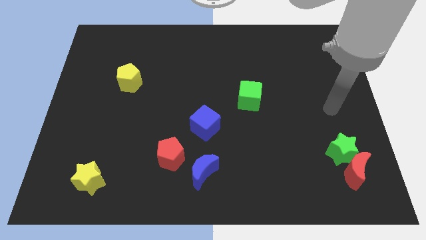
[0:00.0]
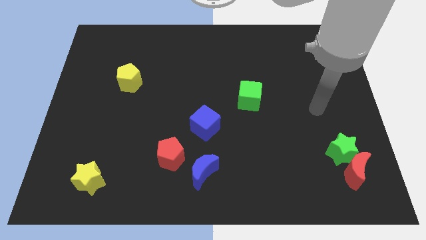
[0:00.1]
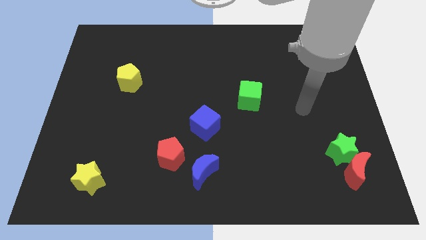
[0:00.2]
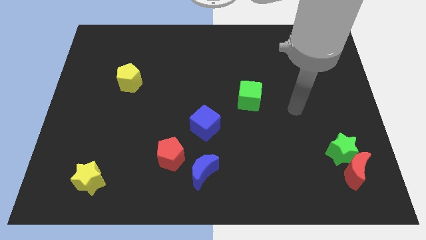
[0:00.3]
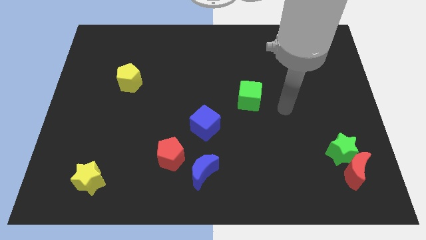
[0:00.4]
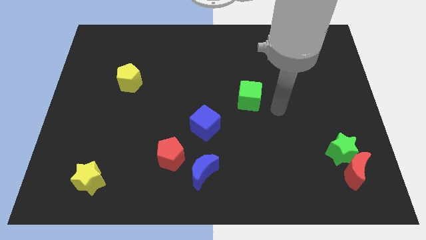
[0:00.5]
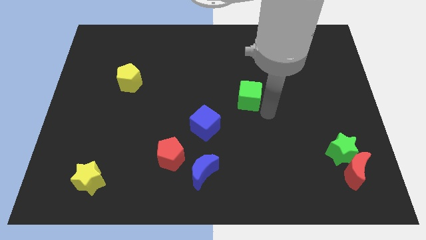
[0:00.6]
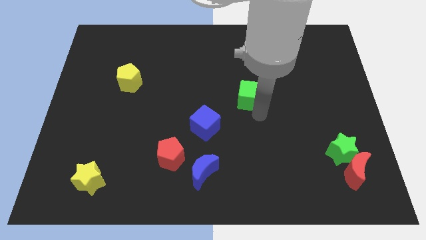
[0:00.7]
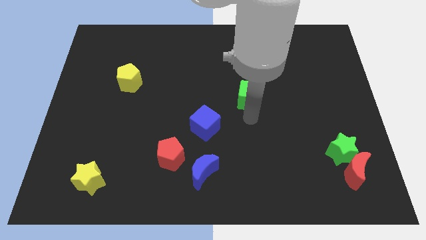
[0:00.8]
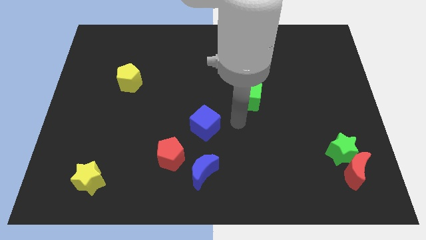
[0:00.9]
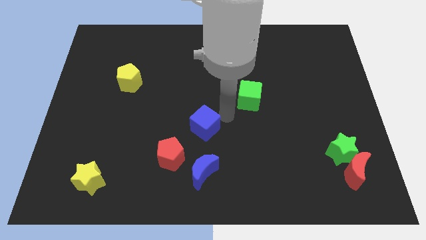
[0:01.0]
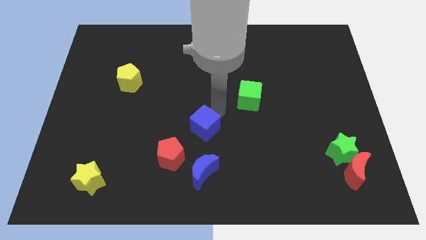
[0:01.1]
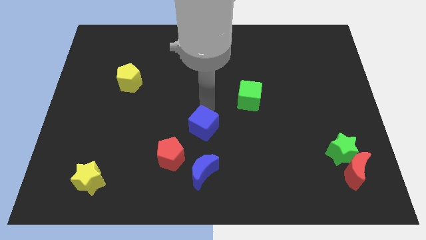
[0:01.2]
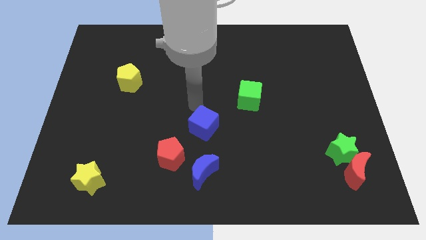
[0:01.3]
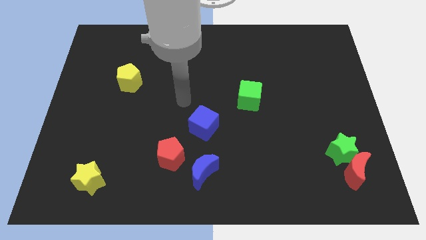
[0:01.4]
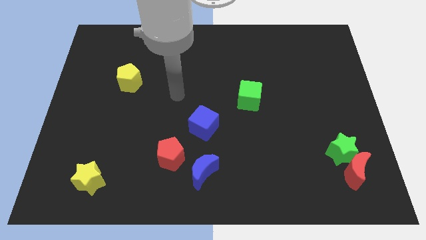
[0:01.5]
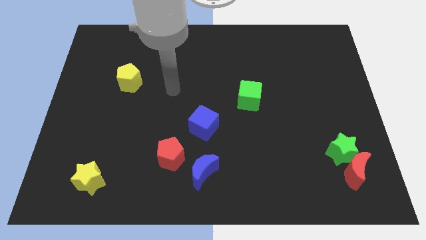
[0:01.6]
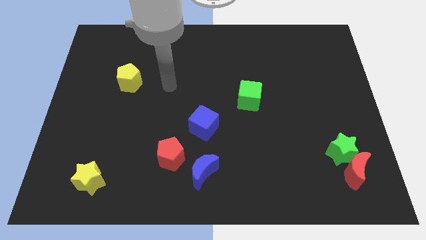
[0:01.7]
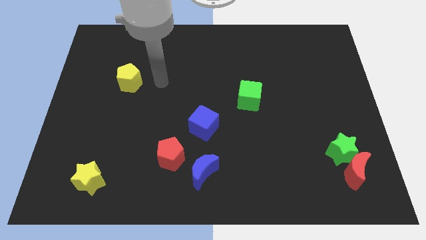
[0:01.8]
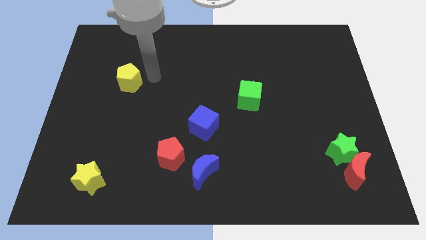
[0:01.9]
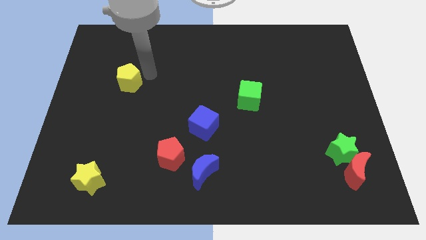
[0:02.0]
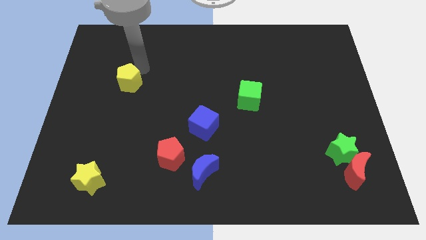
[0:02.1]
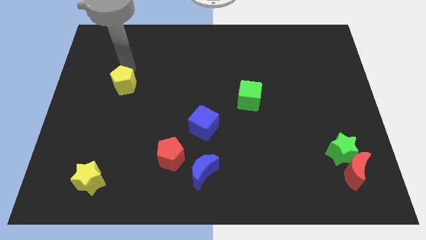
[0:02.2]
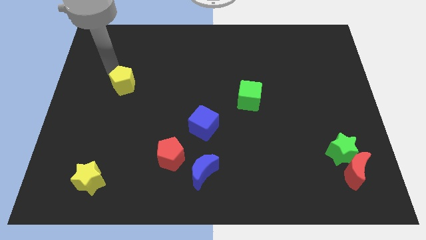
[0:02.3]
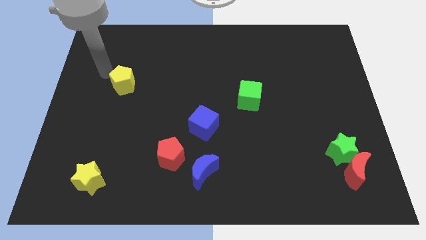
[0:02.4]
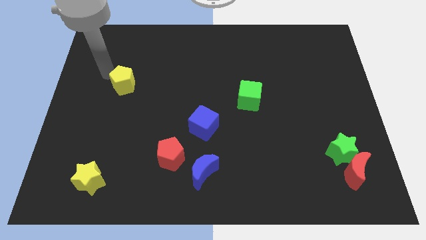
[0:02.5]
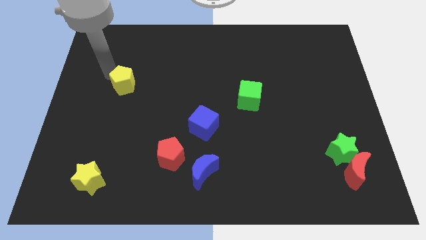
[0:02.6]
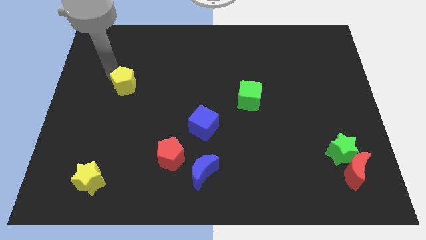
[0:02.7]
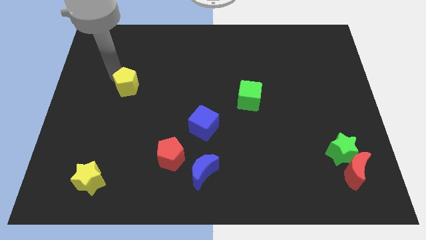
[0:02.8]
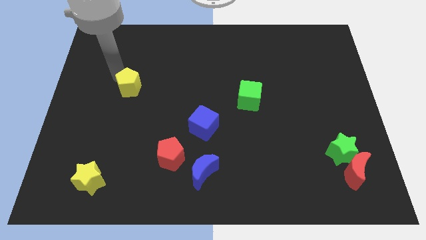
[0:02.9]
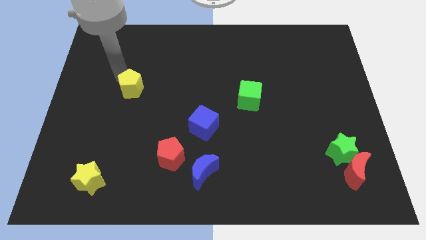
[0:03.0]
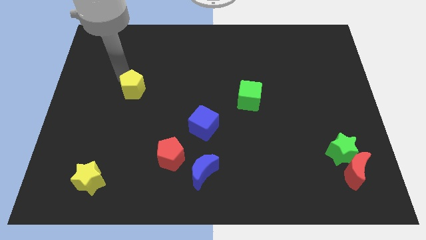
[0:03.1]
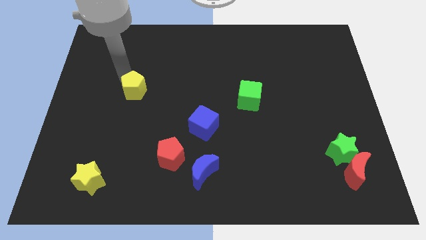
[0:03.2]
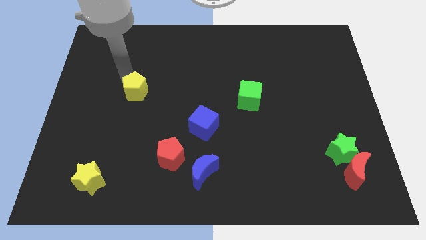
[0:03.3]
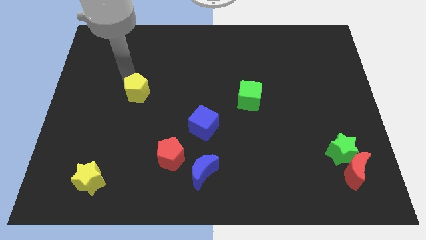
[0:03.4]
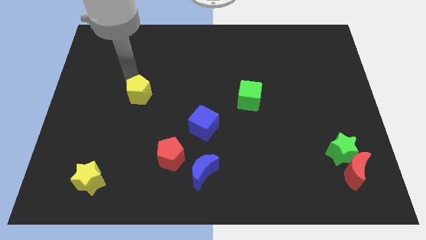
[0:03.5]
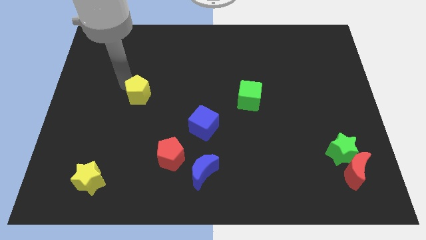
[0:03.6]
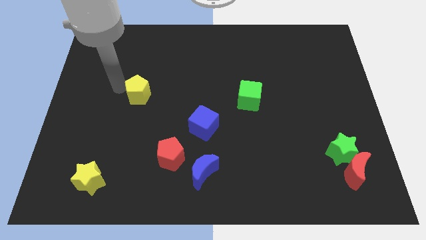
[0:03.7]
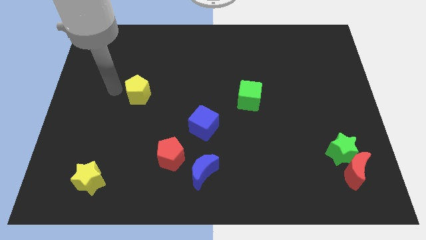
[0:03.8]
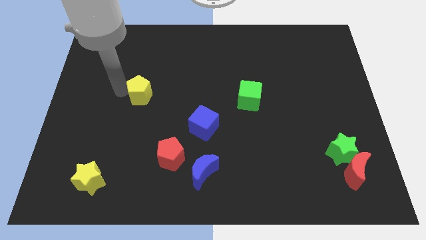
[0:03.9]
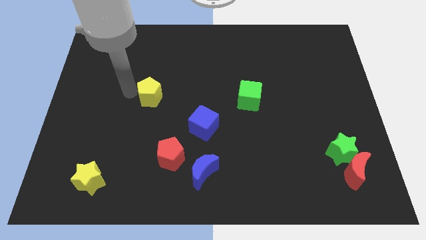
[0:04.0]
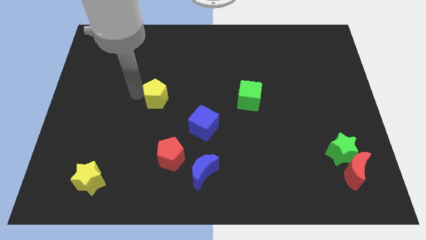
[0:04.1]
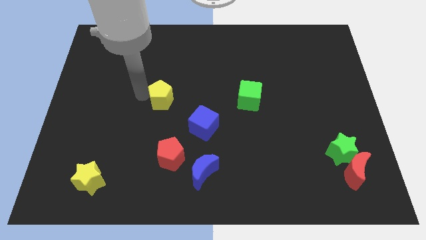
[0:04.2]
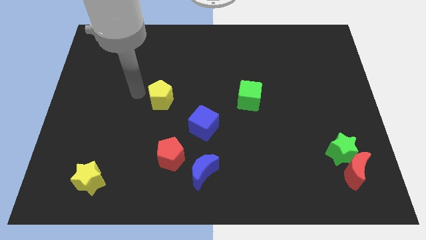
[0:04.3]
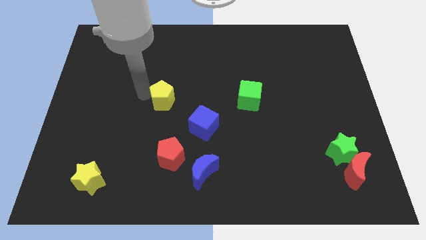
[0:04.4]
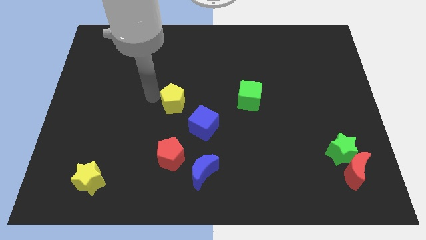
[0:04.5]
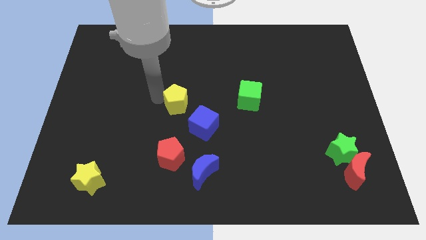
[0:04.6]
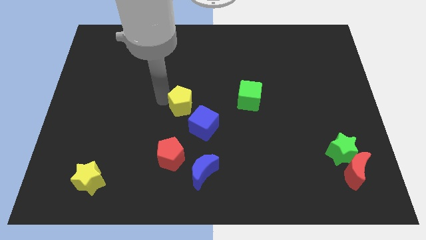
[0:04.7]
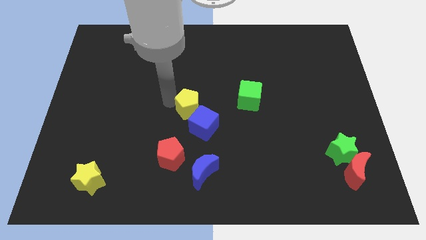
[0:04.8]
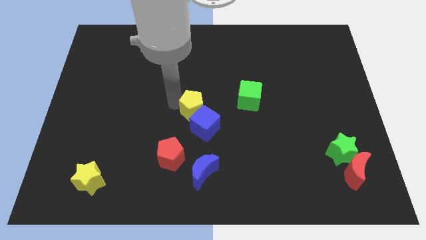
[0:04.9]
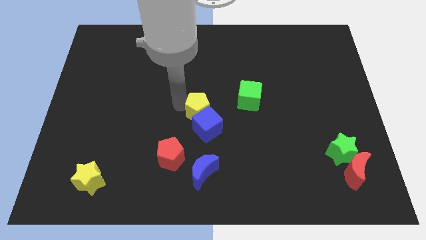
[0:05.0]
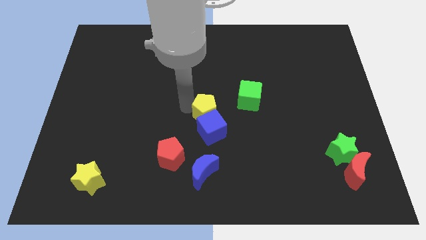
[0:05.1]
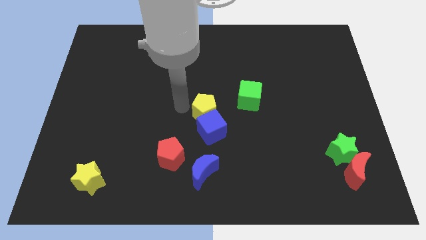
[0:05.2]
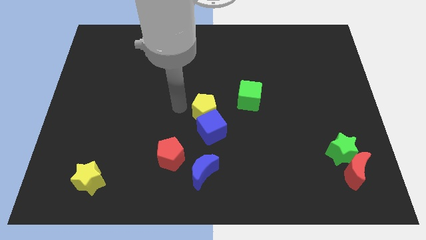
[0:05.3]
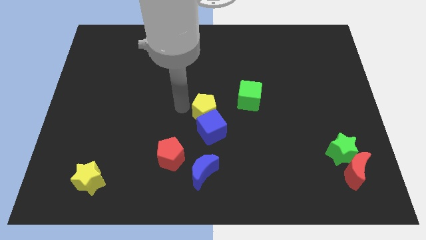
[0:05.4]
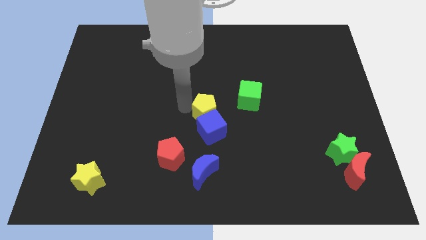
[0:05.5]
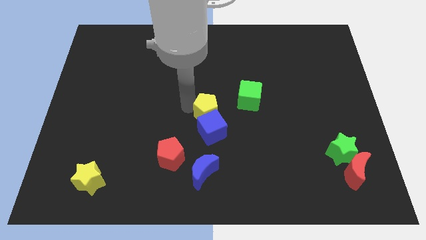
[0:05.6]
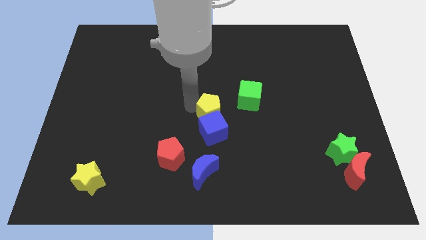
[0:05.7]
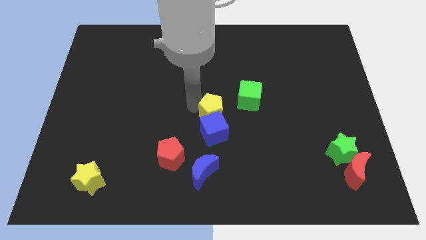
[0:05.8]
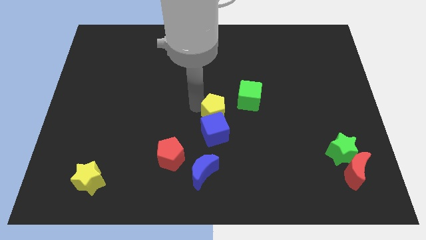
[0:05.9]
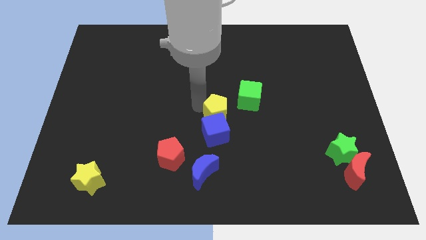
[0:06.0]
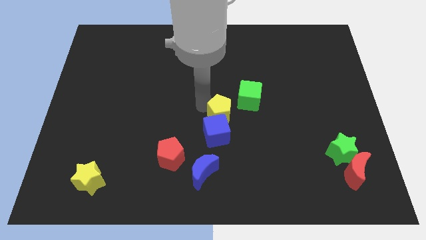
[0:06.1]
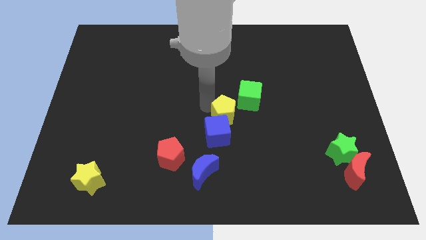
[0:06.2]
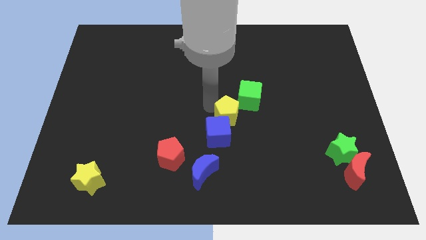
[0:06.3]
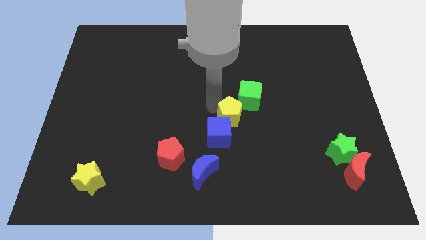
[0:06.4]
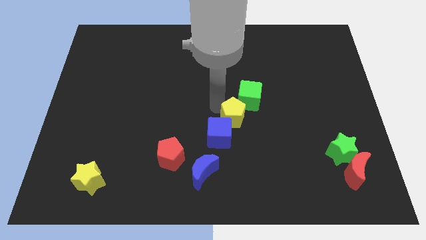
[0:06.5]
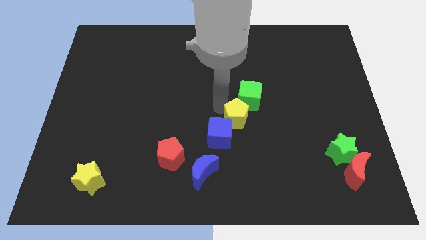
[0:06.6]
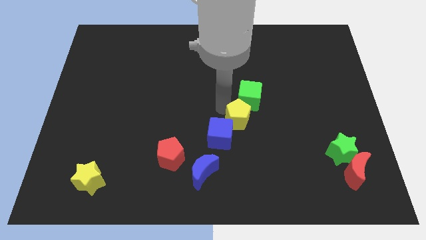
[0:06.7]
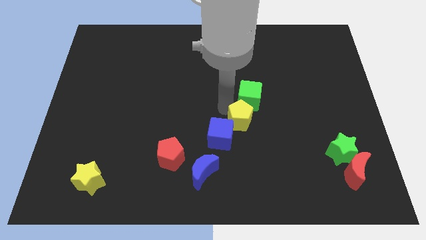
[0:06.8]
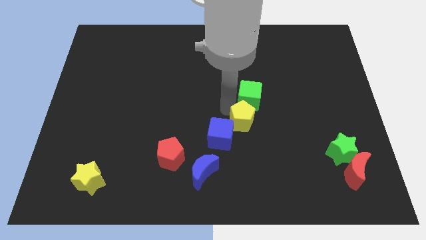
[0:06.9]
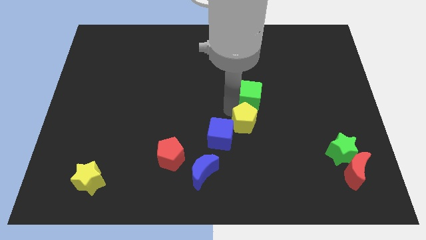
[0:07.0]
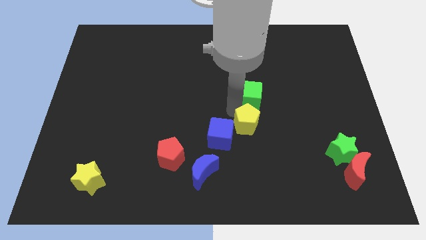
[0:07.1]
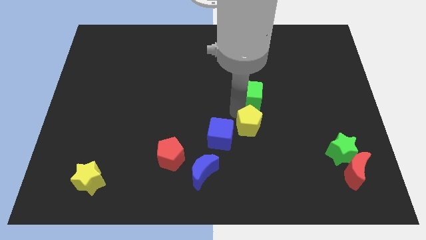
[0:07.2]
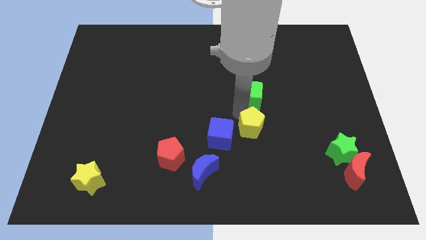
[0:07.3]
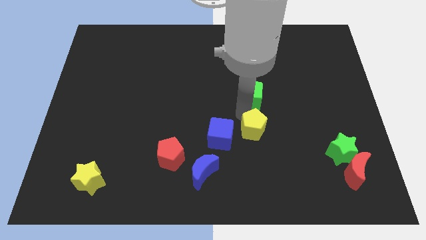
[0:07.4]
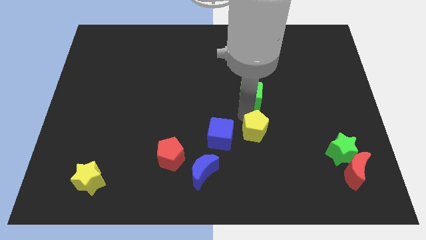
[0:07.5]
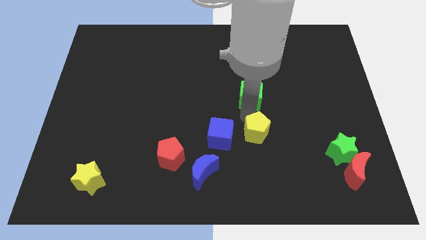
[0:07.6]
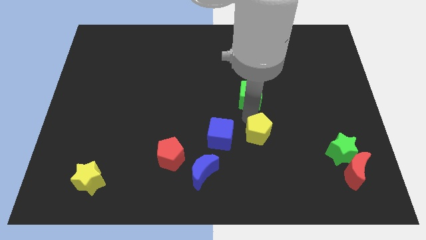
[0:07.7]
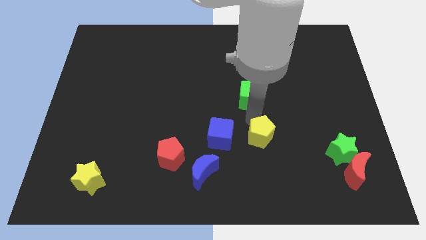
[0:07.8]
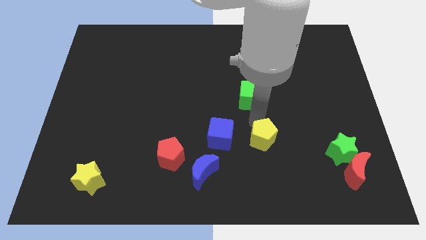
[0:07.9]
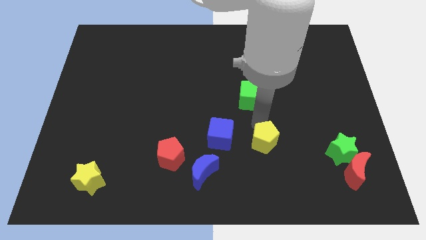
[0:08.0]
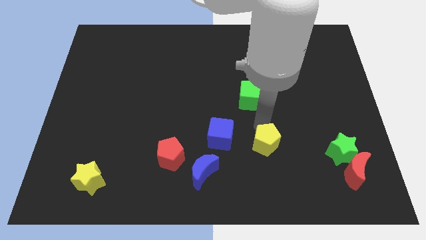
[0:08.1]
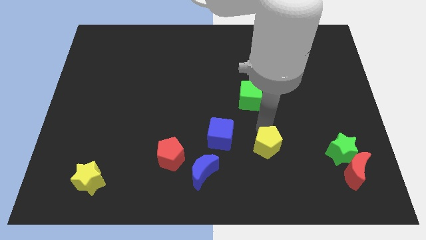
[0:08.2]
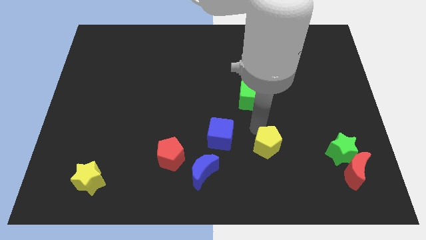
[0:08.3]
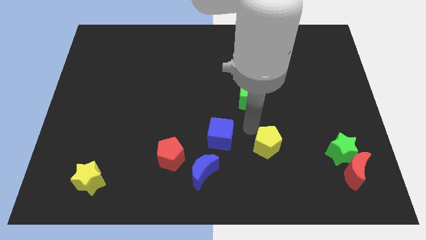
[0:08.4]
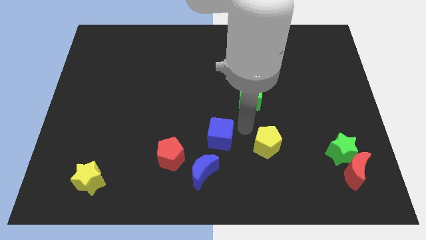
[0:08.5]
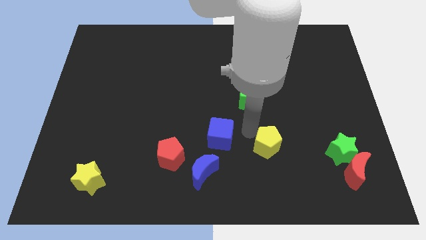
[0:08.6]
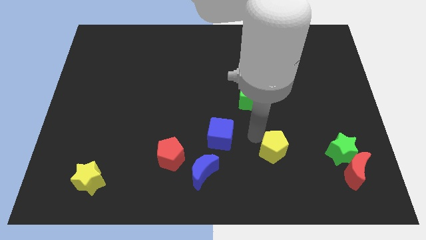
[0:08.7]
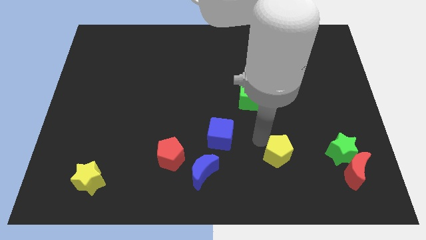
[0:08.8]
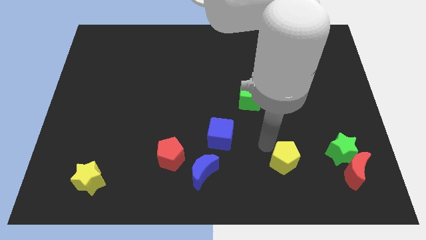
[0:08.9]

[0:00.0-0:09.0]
slide the yellow pentagon to the left of the red moon
